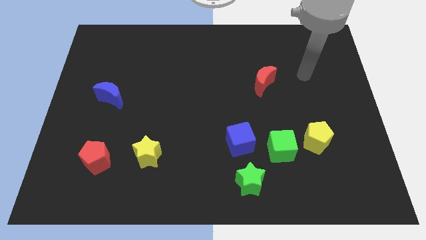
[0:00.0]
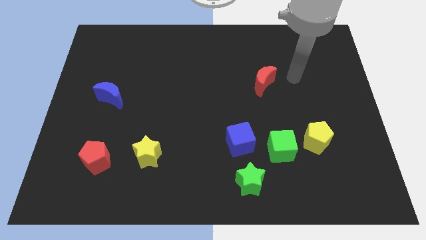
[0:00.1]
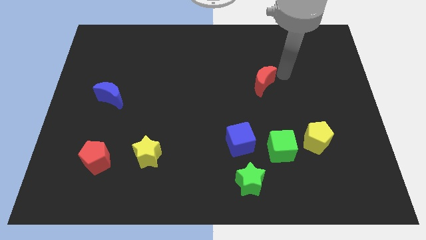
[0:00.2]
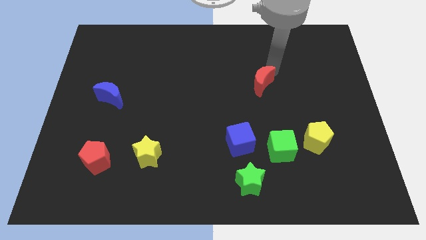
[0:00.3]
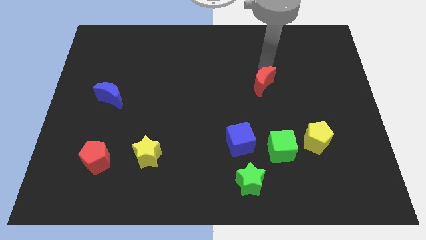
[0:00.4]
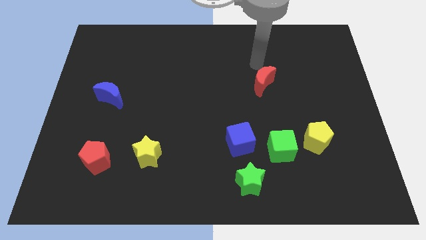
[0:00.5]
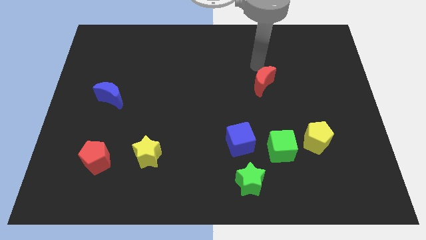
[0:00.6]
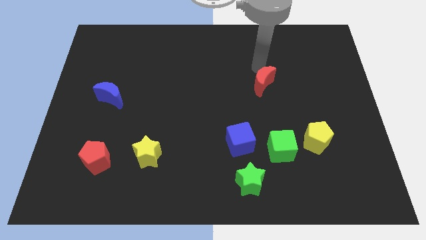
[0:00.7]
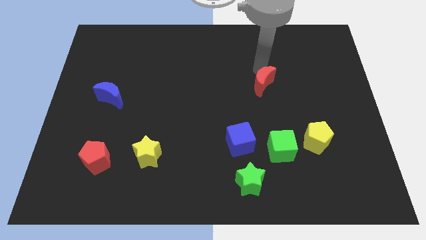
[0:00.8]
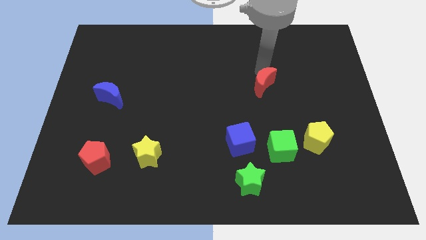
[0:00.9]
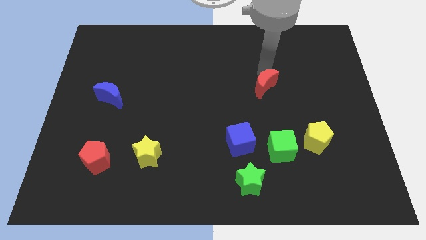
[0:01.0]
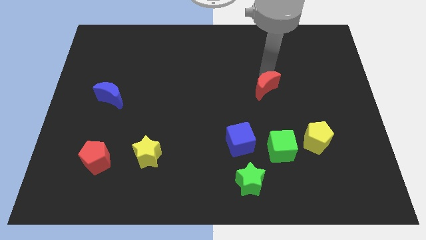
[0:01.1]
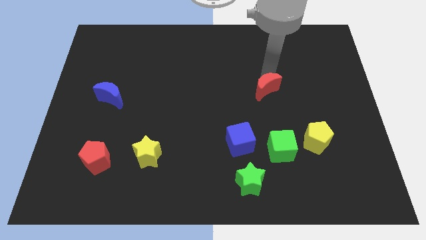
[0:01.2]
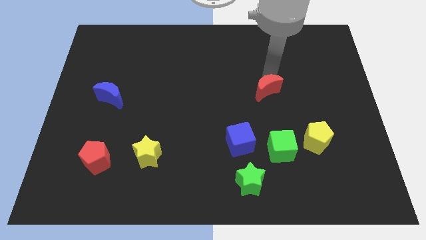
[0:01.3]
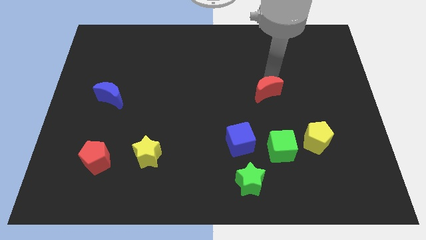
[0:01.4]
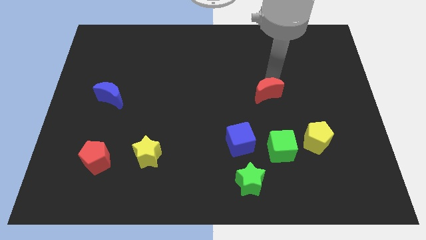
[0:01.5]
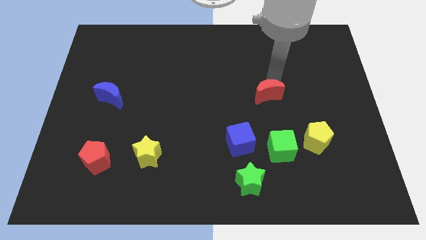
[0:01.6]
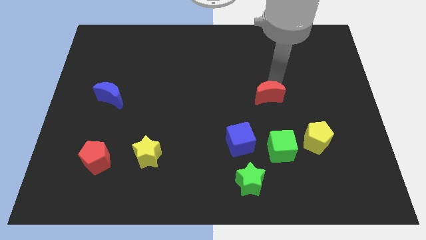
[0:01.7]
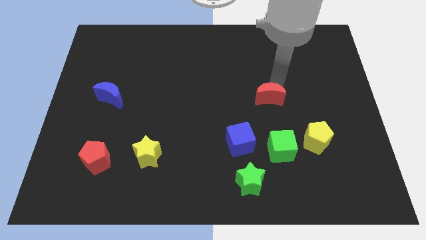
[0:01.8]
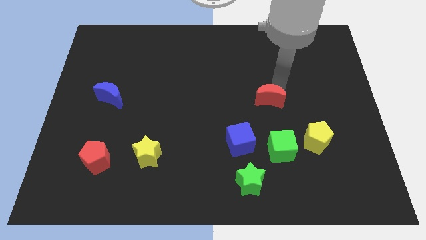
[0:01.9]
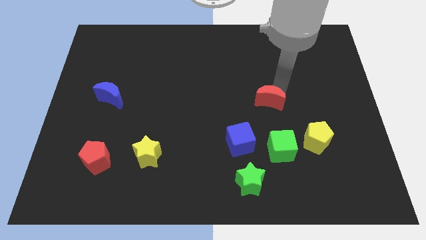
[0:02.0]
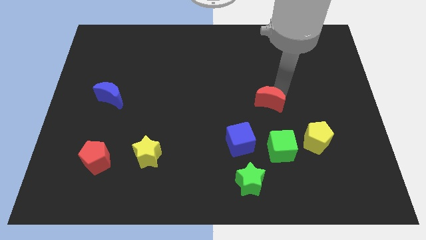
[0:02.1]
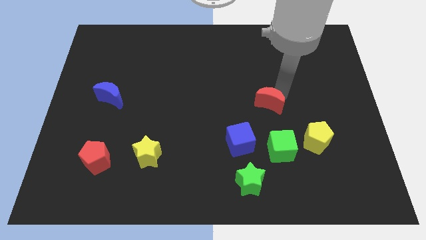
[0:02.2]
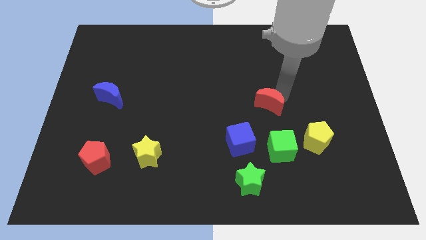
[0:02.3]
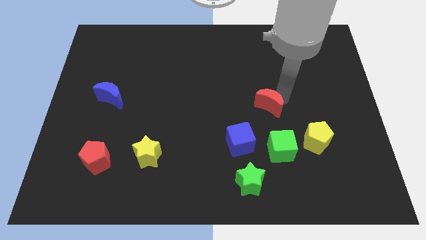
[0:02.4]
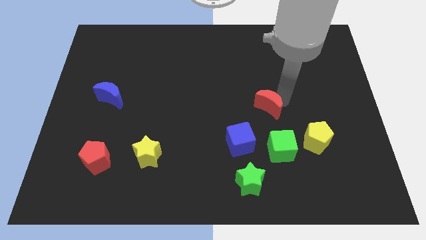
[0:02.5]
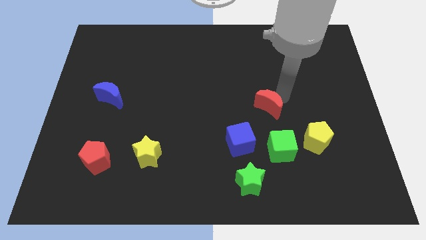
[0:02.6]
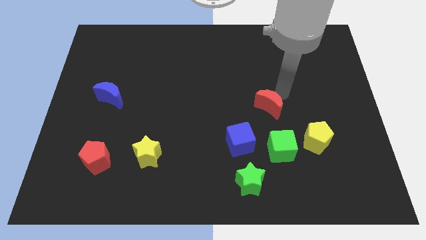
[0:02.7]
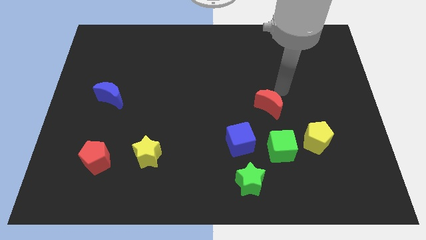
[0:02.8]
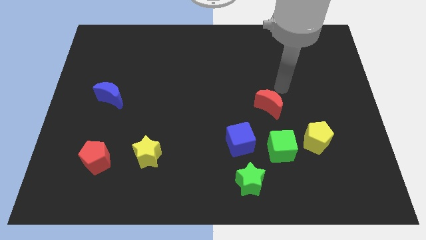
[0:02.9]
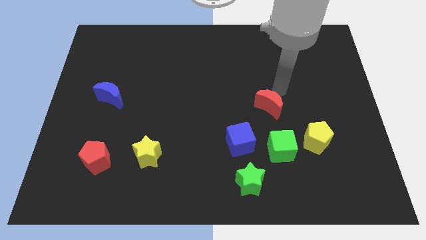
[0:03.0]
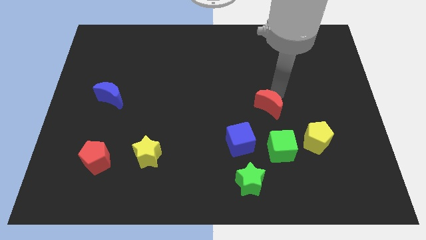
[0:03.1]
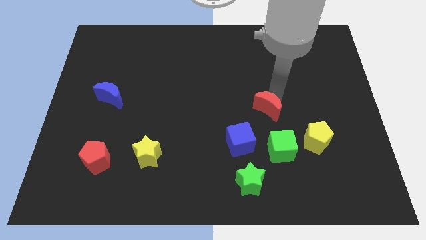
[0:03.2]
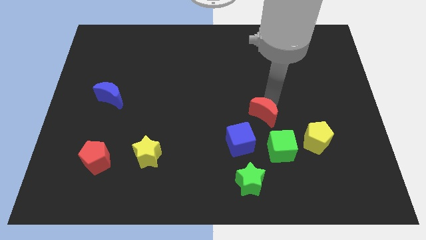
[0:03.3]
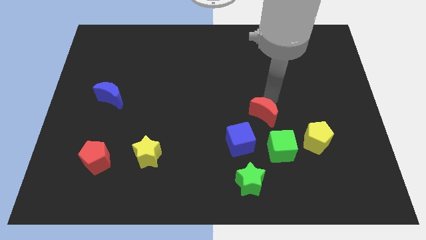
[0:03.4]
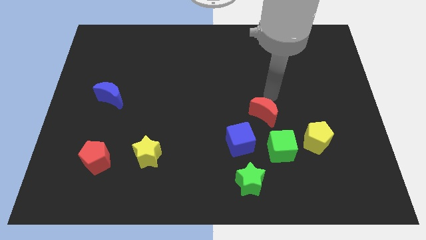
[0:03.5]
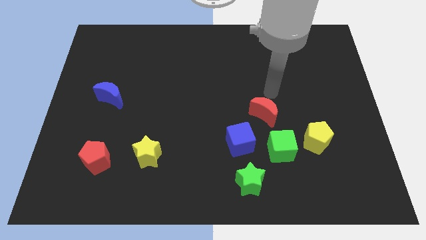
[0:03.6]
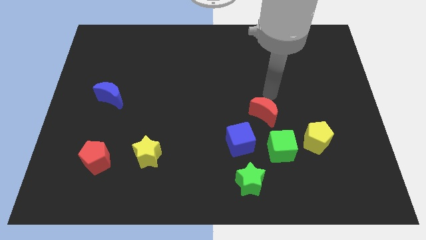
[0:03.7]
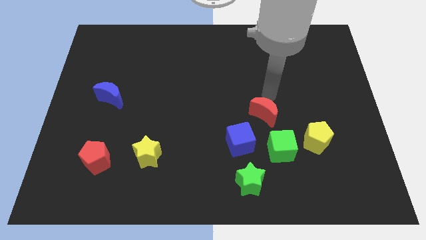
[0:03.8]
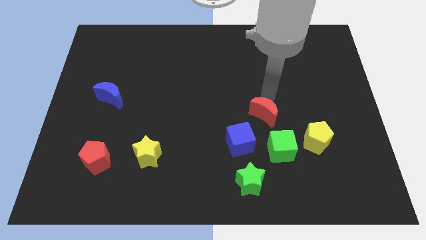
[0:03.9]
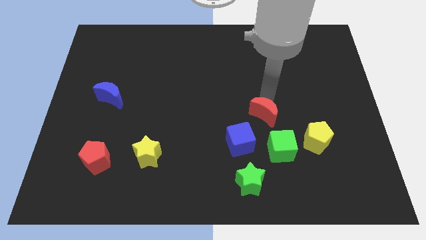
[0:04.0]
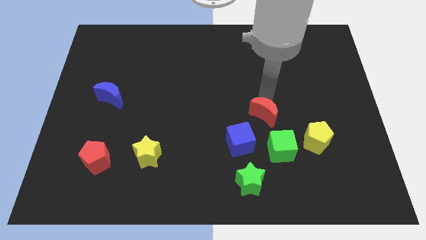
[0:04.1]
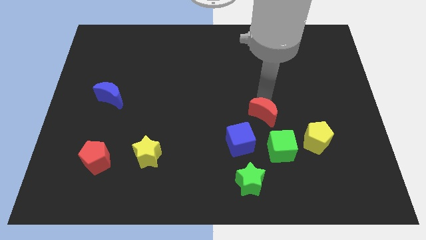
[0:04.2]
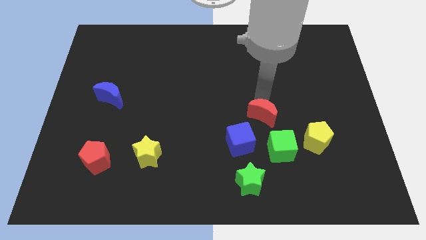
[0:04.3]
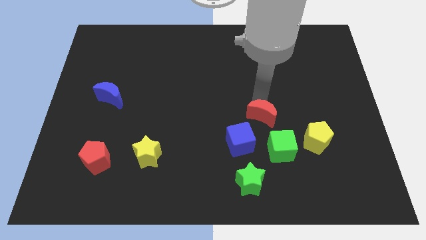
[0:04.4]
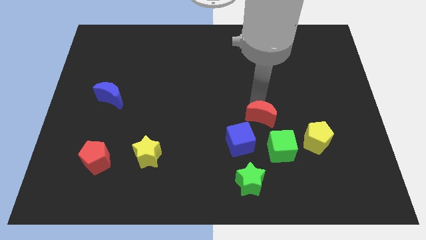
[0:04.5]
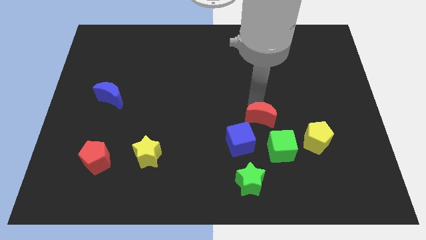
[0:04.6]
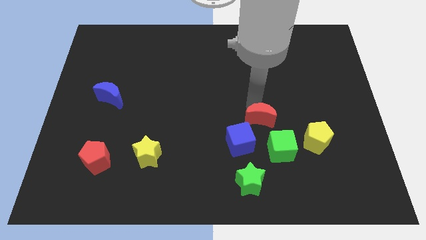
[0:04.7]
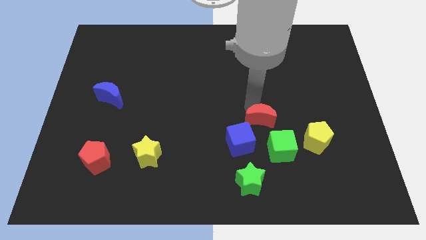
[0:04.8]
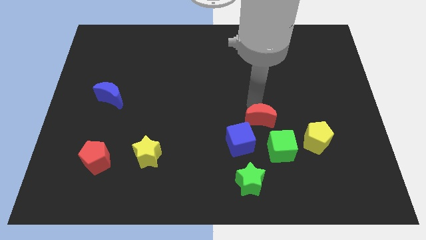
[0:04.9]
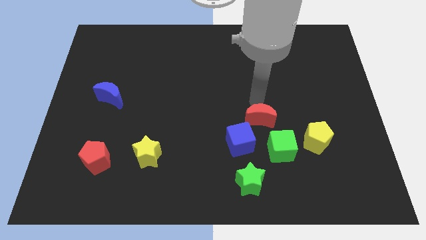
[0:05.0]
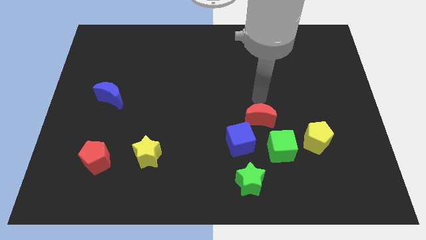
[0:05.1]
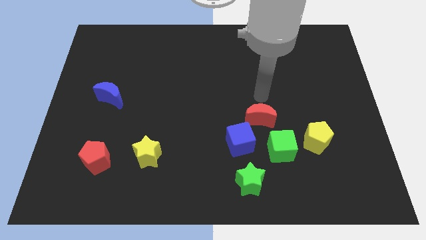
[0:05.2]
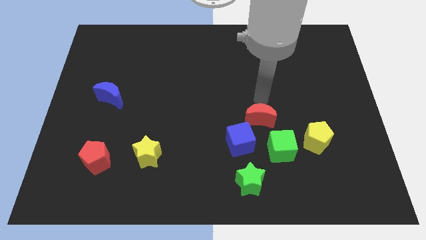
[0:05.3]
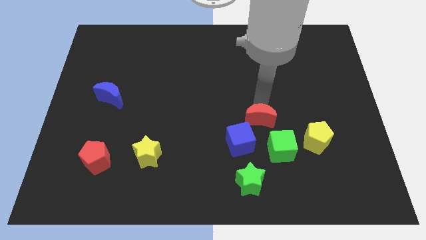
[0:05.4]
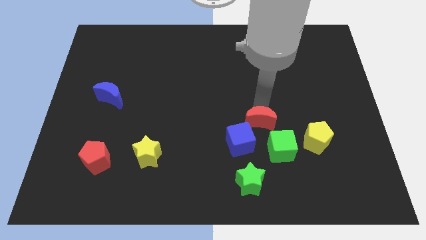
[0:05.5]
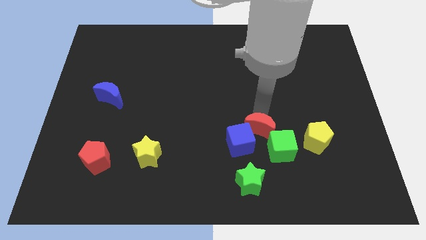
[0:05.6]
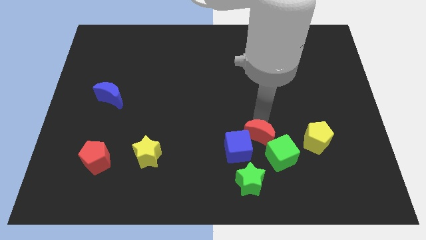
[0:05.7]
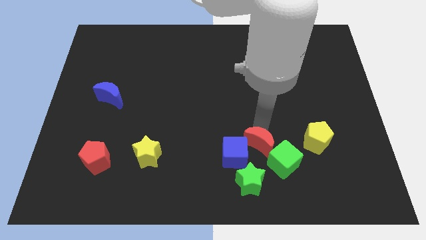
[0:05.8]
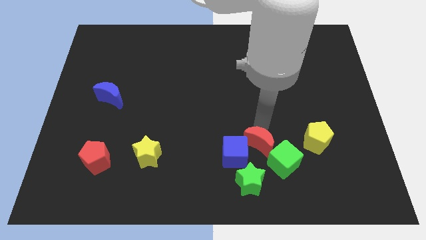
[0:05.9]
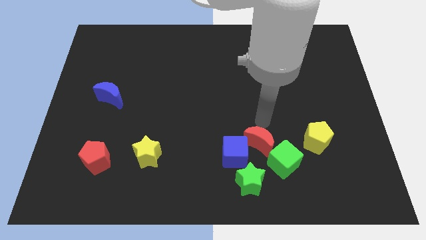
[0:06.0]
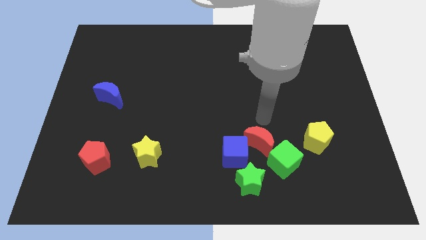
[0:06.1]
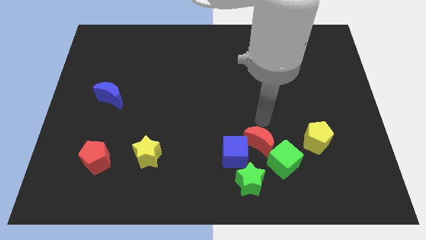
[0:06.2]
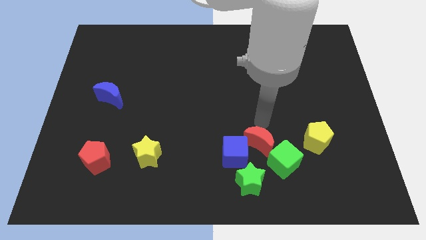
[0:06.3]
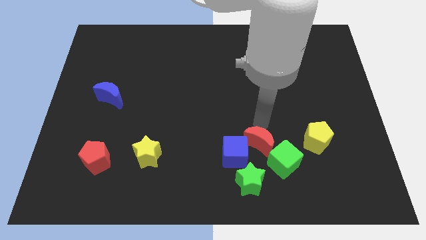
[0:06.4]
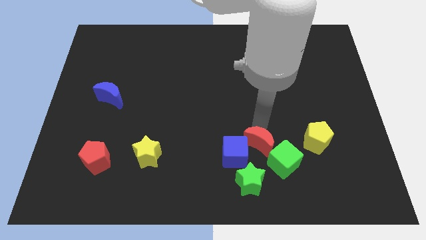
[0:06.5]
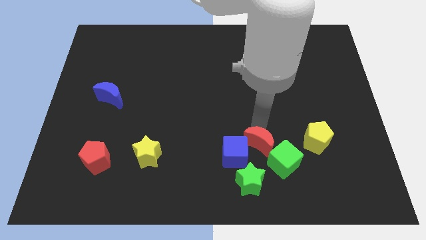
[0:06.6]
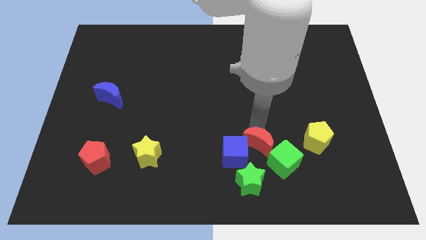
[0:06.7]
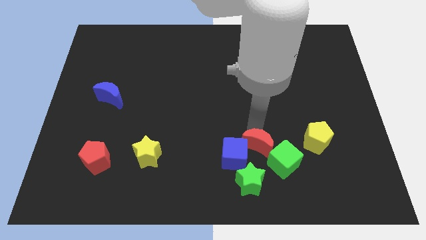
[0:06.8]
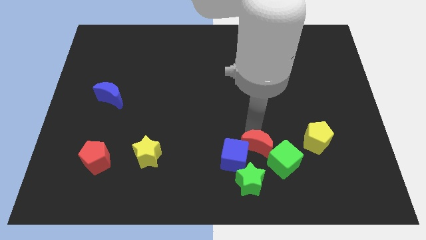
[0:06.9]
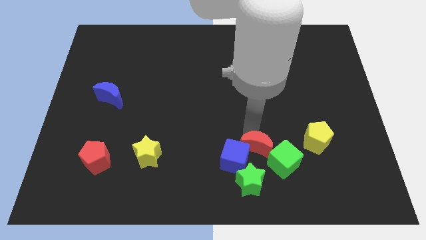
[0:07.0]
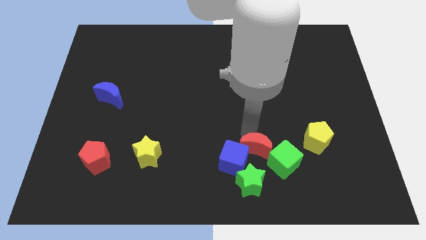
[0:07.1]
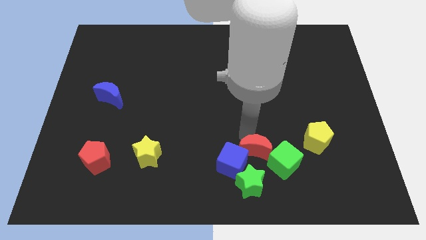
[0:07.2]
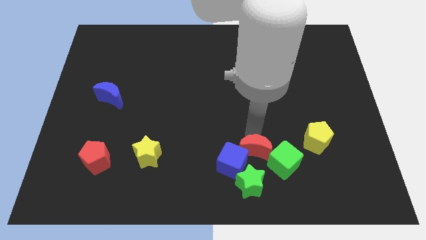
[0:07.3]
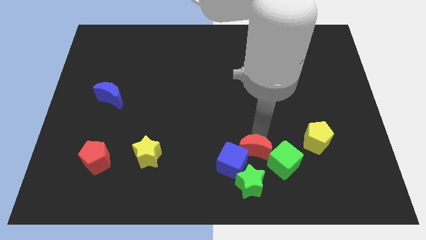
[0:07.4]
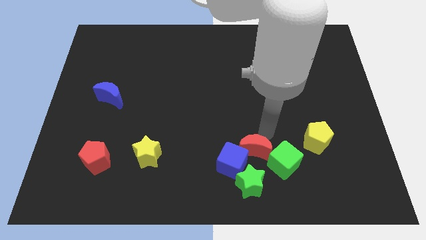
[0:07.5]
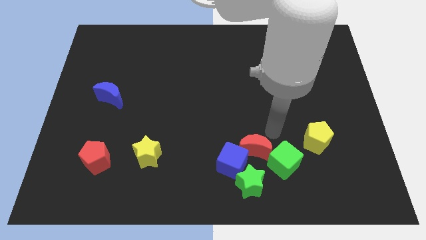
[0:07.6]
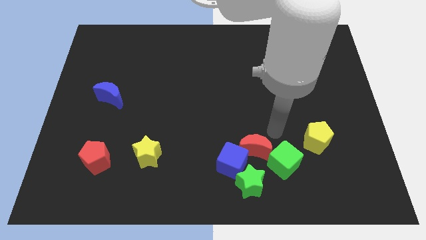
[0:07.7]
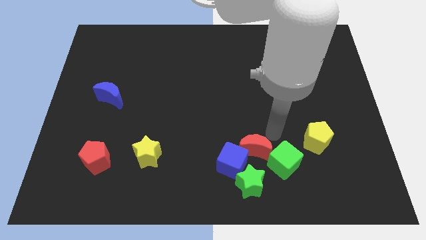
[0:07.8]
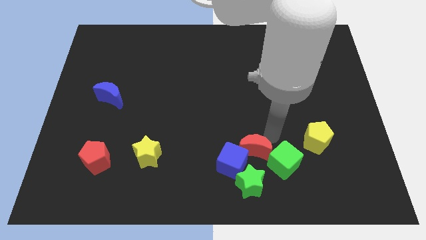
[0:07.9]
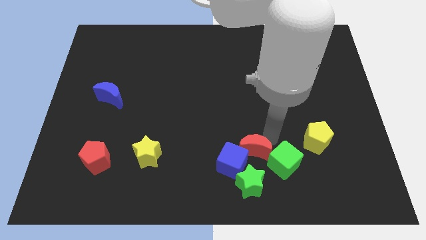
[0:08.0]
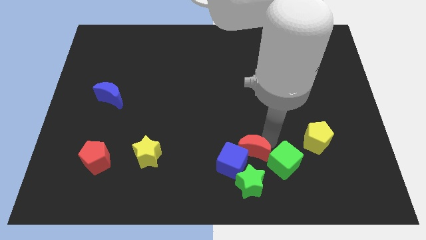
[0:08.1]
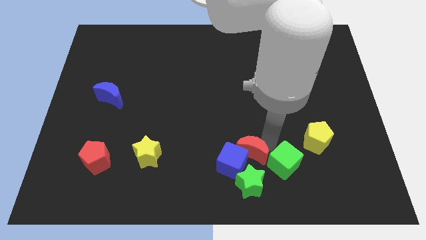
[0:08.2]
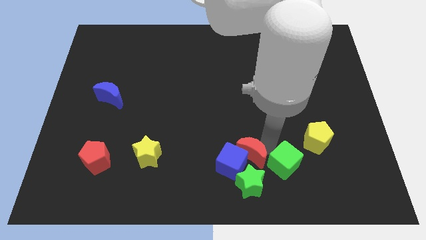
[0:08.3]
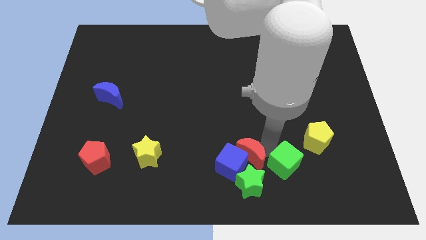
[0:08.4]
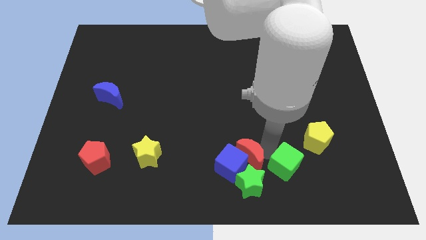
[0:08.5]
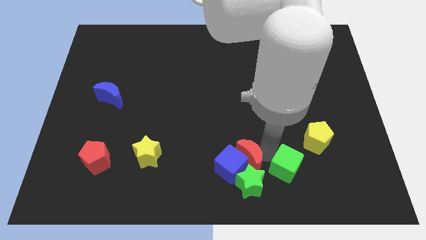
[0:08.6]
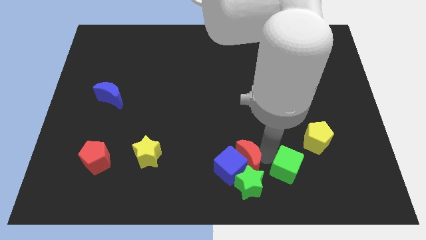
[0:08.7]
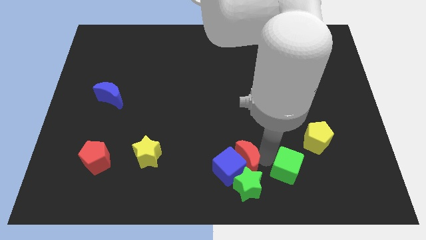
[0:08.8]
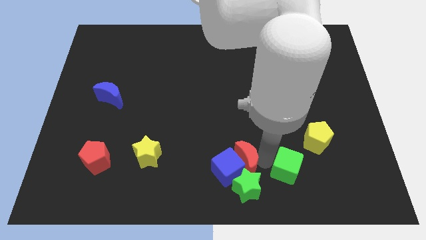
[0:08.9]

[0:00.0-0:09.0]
put the red moon to the bottom
